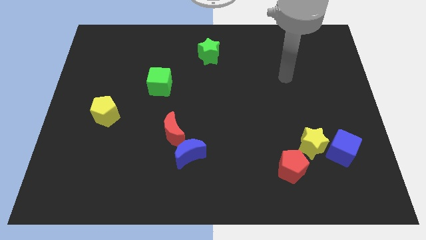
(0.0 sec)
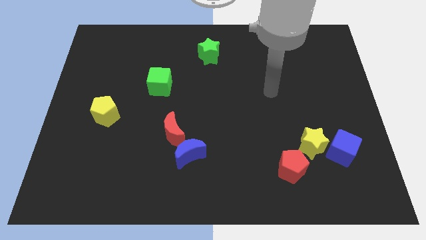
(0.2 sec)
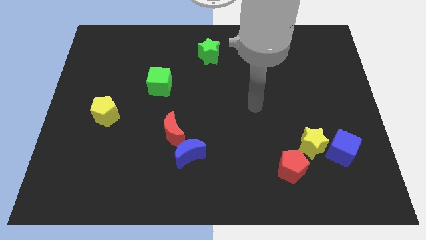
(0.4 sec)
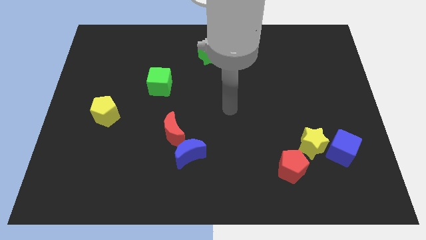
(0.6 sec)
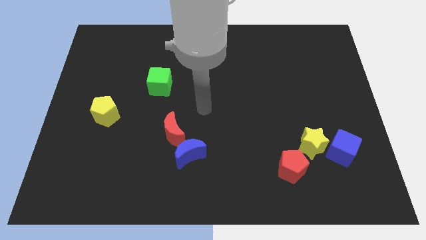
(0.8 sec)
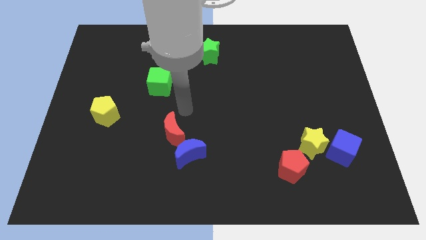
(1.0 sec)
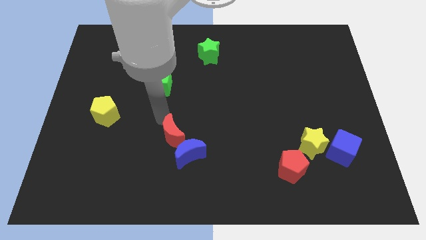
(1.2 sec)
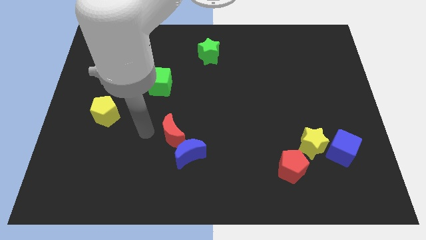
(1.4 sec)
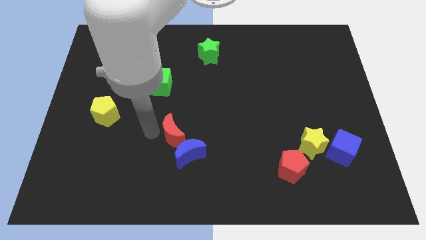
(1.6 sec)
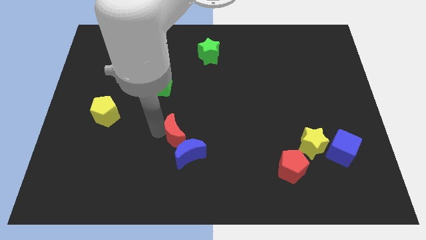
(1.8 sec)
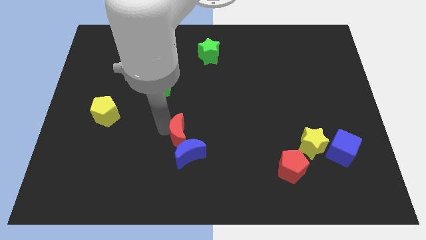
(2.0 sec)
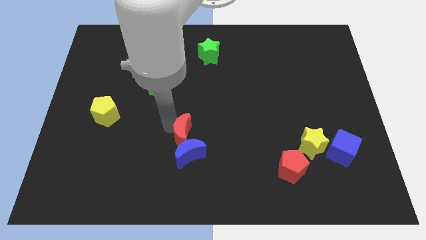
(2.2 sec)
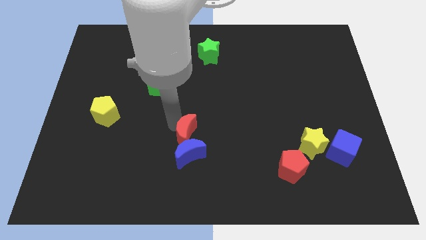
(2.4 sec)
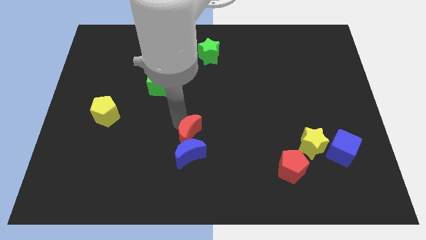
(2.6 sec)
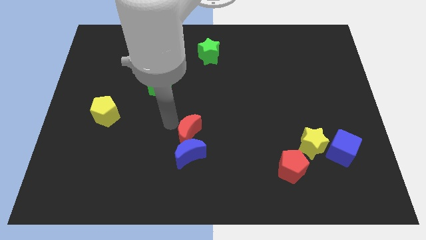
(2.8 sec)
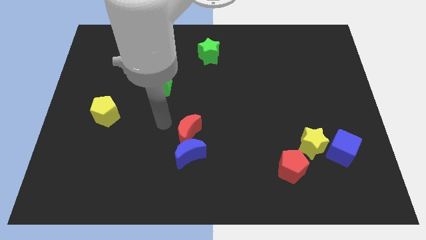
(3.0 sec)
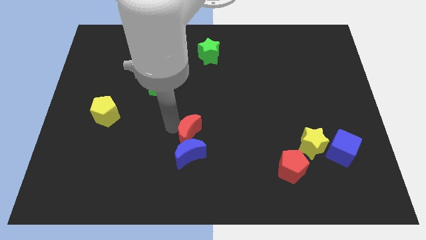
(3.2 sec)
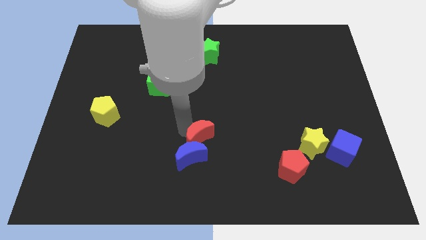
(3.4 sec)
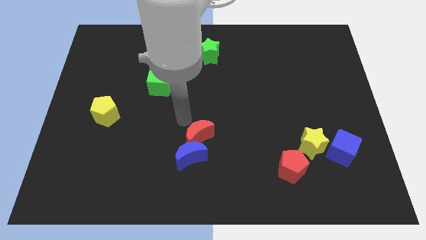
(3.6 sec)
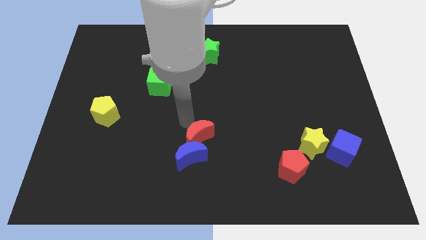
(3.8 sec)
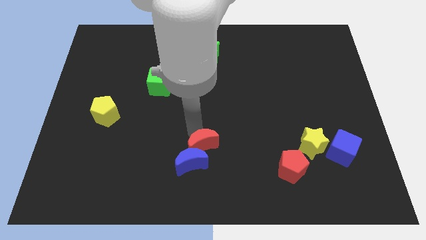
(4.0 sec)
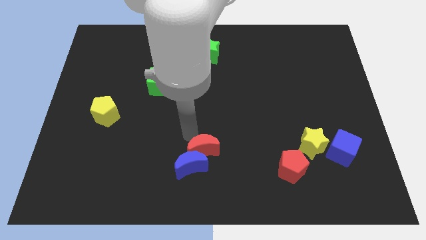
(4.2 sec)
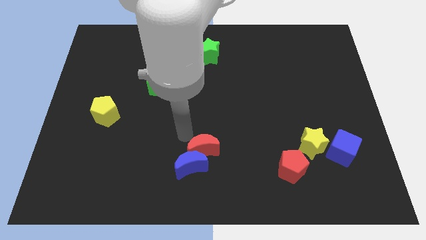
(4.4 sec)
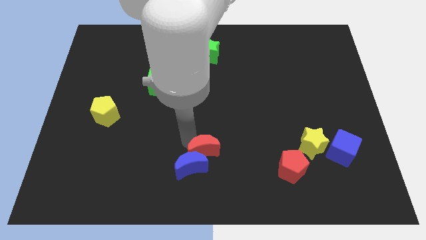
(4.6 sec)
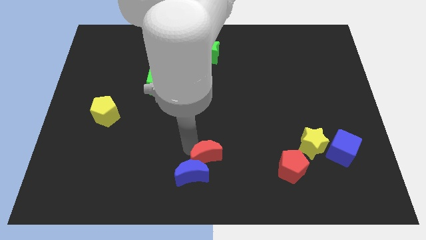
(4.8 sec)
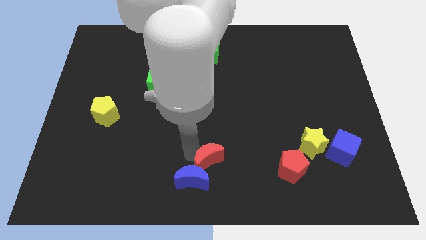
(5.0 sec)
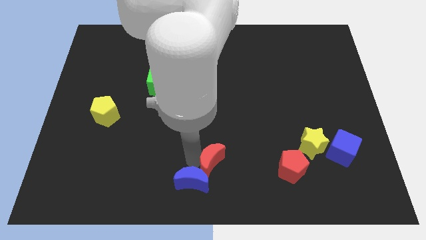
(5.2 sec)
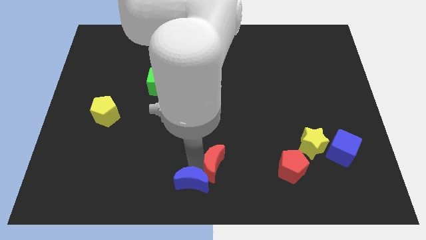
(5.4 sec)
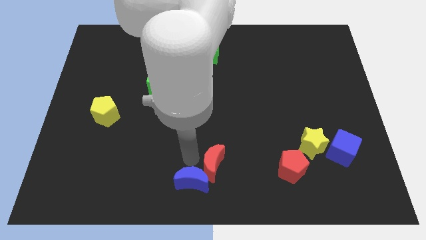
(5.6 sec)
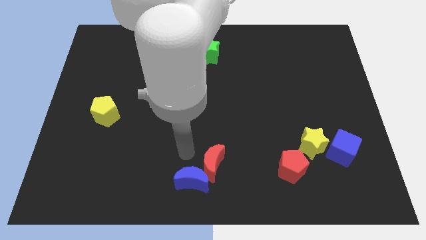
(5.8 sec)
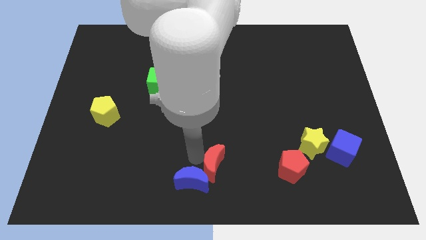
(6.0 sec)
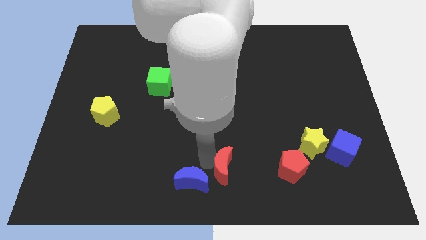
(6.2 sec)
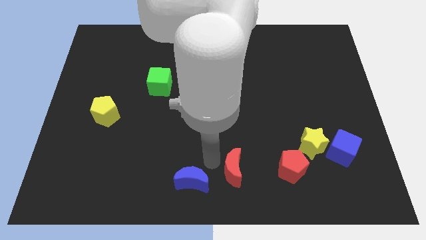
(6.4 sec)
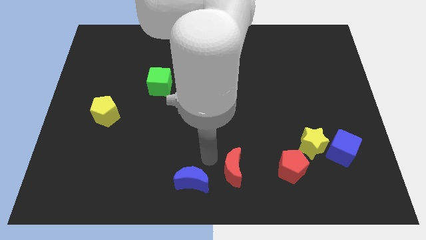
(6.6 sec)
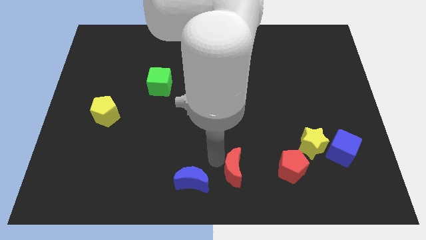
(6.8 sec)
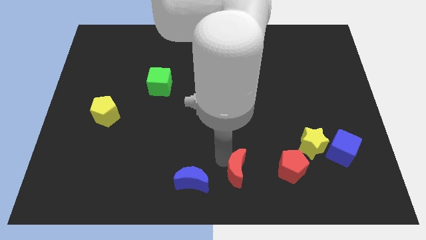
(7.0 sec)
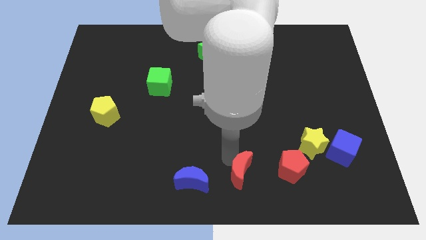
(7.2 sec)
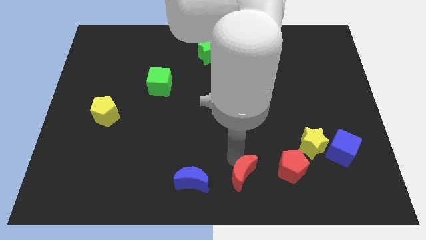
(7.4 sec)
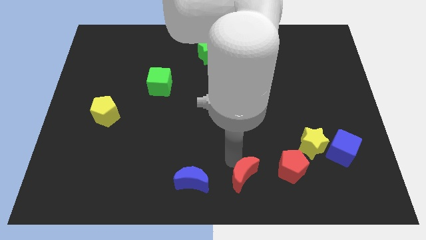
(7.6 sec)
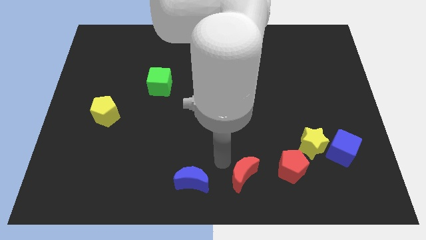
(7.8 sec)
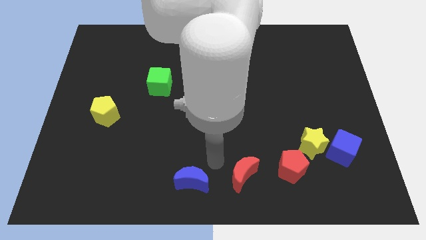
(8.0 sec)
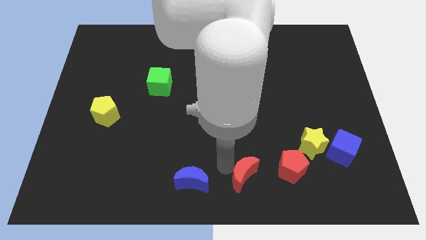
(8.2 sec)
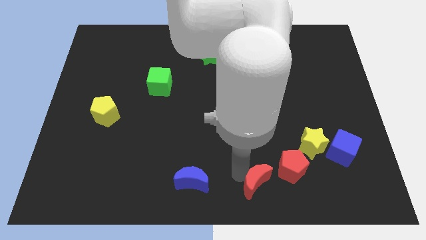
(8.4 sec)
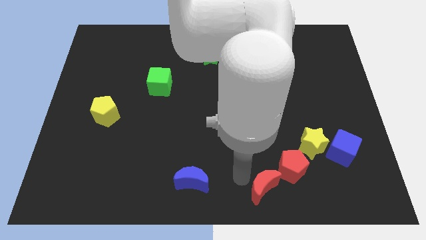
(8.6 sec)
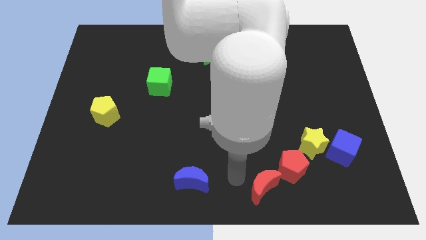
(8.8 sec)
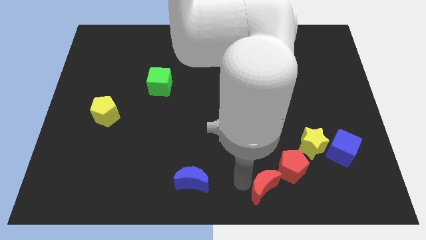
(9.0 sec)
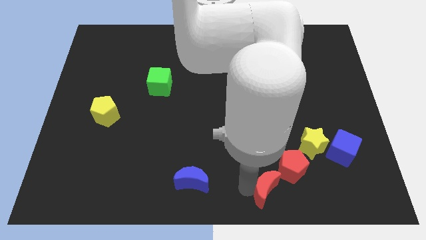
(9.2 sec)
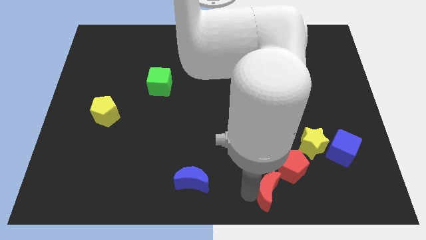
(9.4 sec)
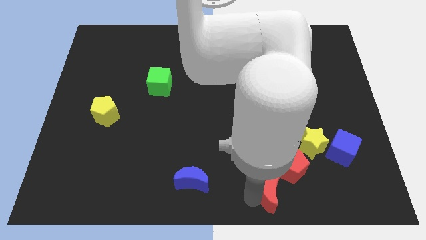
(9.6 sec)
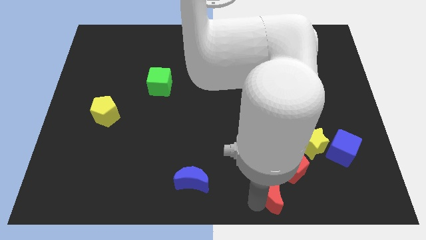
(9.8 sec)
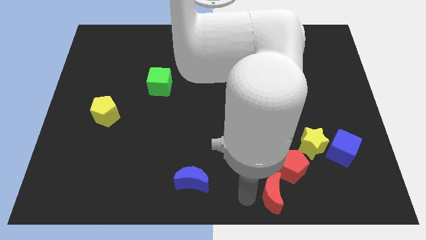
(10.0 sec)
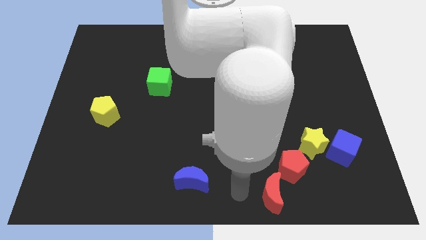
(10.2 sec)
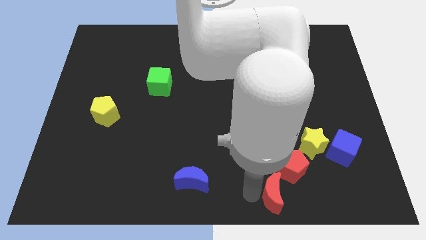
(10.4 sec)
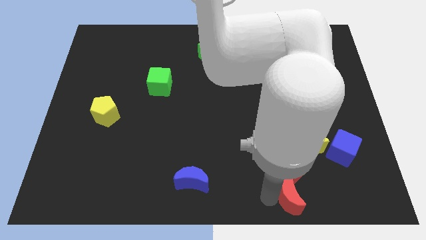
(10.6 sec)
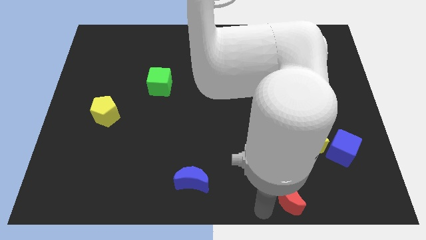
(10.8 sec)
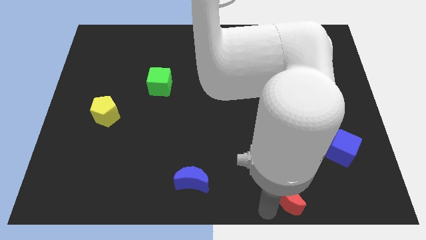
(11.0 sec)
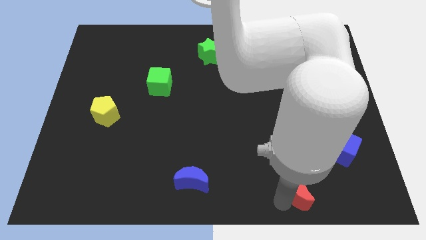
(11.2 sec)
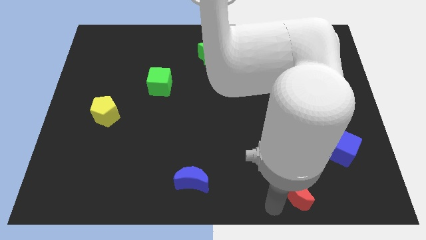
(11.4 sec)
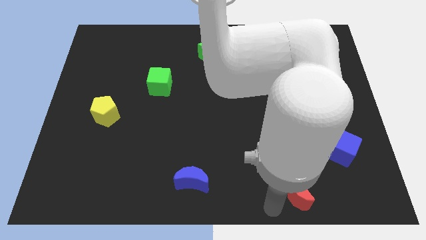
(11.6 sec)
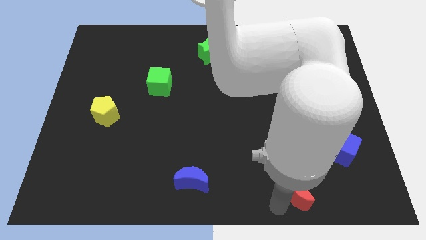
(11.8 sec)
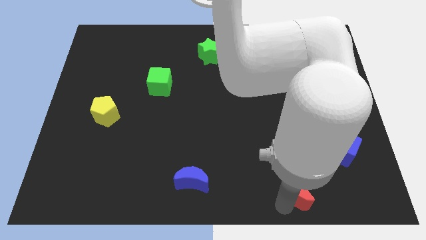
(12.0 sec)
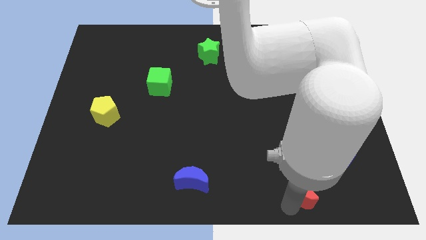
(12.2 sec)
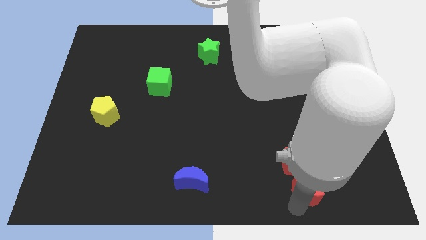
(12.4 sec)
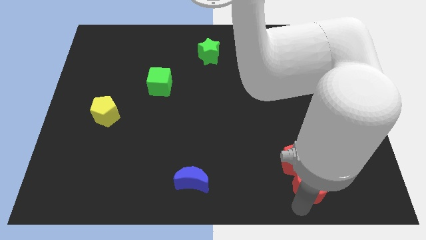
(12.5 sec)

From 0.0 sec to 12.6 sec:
slide the red moon diagonally down and to the left of the blue cube

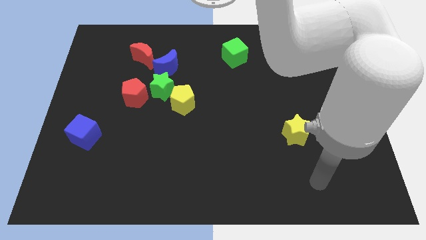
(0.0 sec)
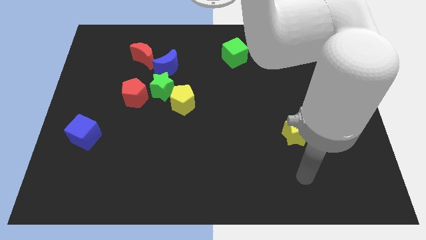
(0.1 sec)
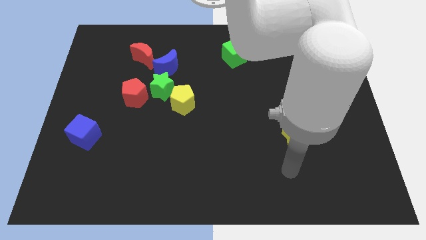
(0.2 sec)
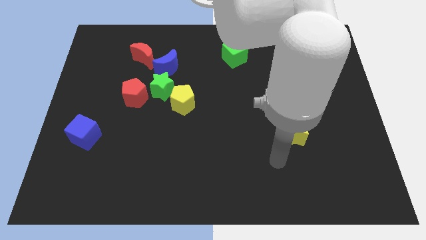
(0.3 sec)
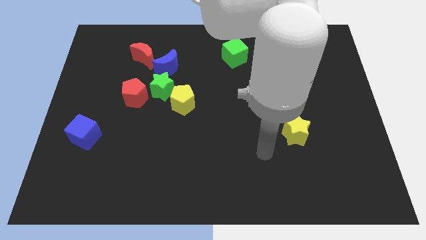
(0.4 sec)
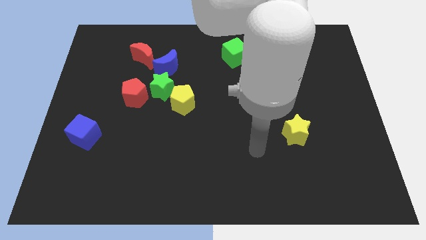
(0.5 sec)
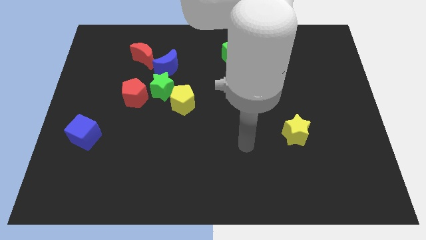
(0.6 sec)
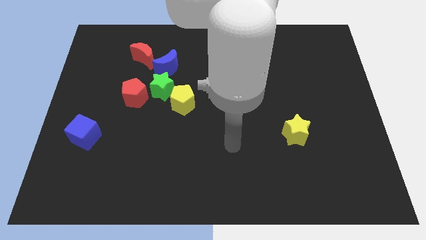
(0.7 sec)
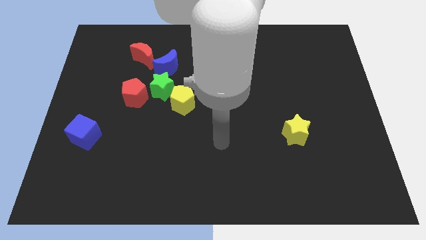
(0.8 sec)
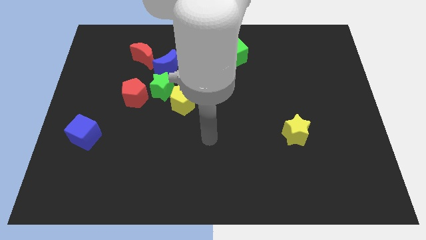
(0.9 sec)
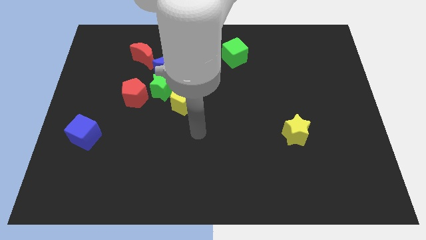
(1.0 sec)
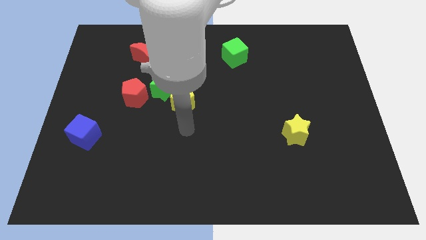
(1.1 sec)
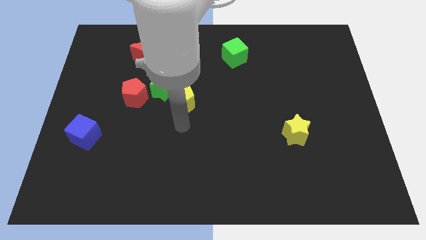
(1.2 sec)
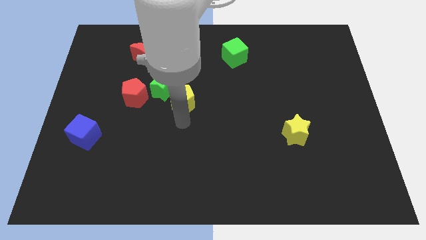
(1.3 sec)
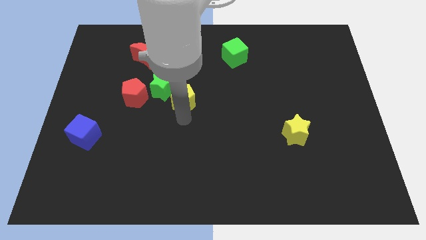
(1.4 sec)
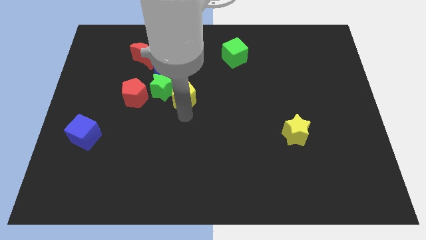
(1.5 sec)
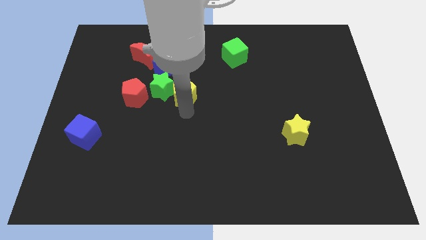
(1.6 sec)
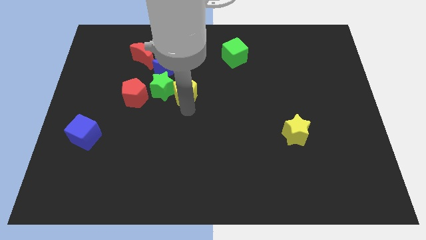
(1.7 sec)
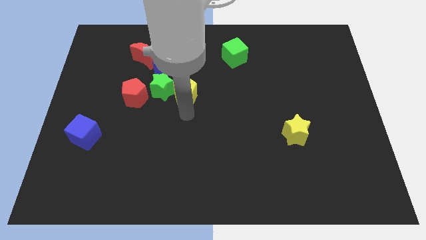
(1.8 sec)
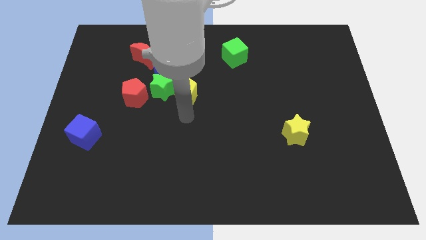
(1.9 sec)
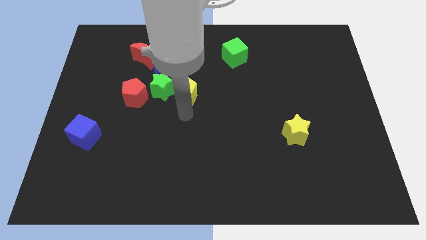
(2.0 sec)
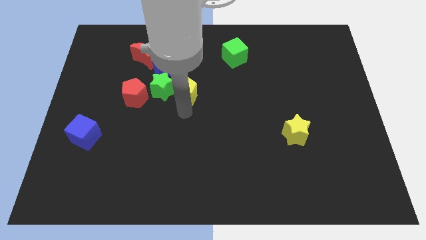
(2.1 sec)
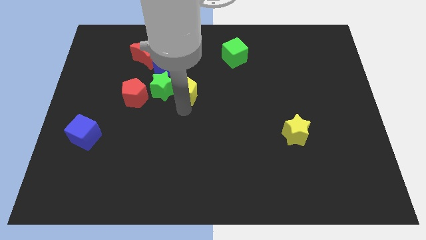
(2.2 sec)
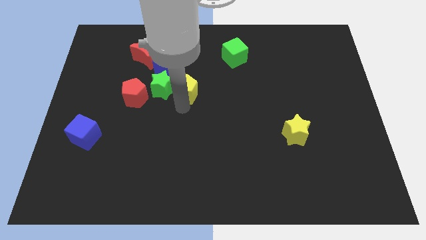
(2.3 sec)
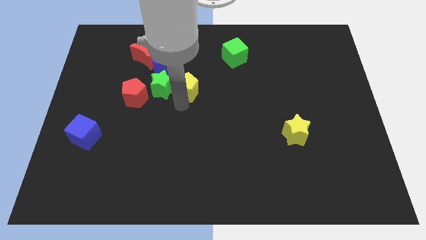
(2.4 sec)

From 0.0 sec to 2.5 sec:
put the yellow pentagon diagonally up and to the right of the green star
